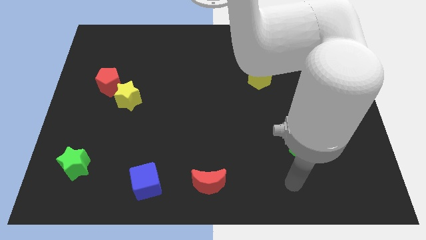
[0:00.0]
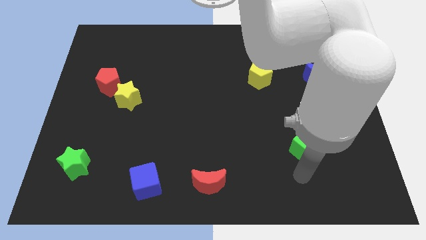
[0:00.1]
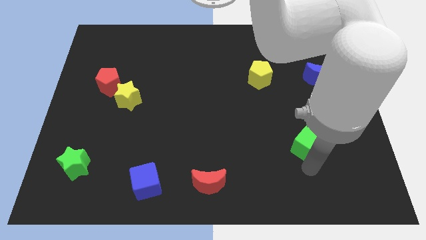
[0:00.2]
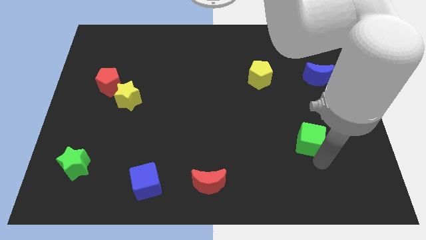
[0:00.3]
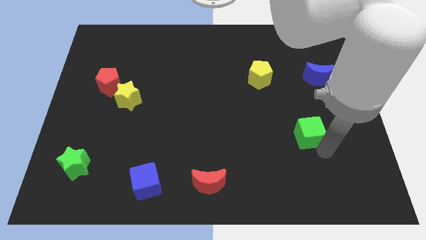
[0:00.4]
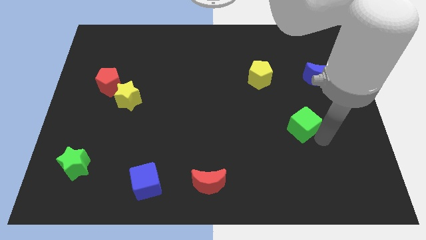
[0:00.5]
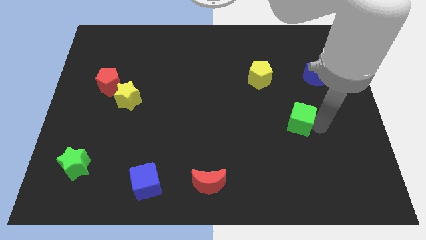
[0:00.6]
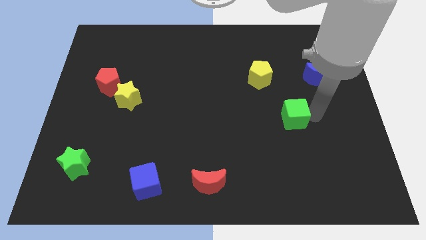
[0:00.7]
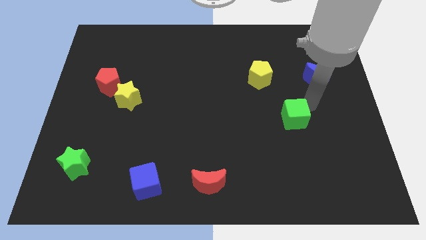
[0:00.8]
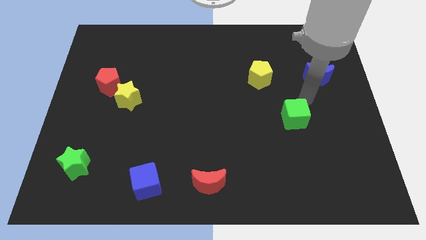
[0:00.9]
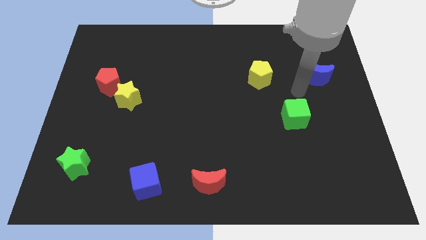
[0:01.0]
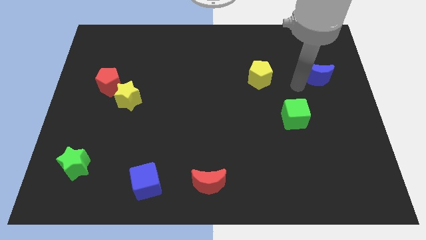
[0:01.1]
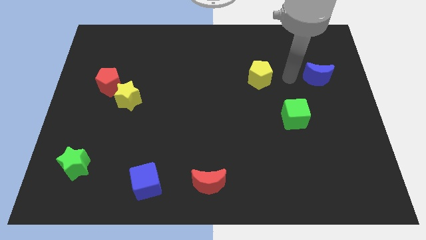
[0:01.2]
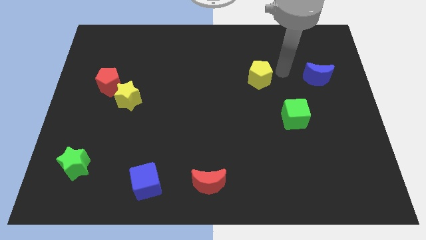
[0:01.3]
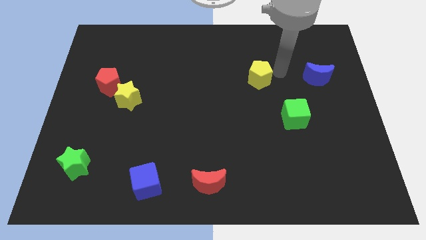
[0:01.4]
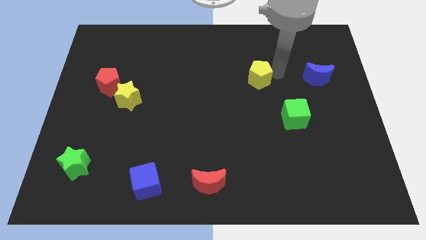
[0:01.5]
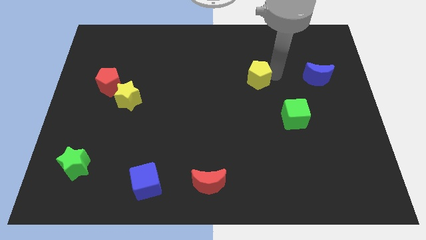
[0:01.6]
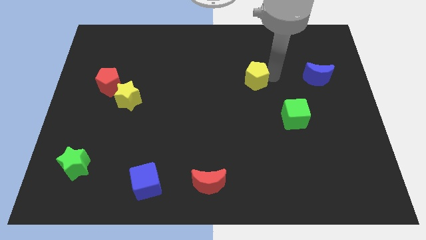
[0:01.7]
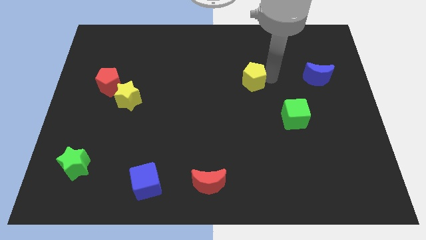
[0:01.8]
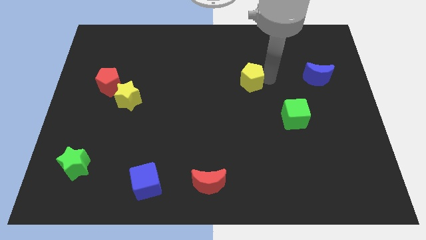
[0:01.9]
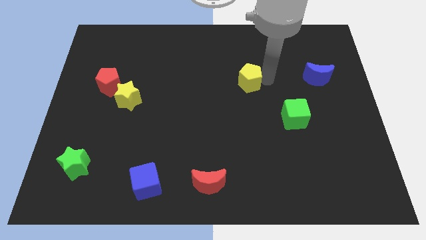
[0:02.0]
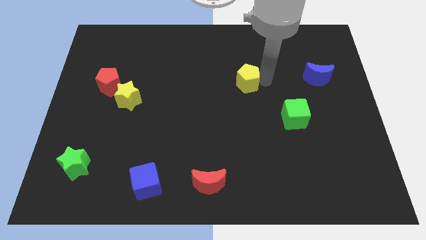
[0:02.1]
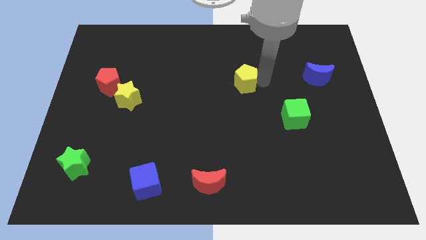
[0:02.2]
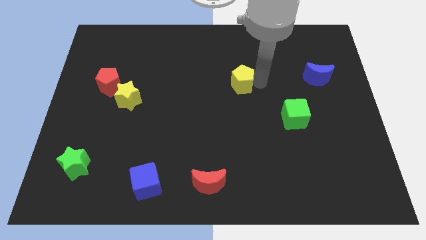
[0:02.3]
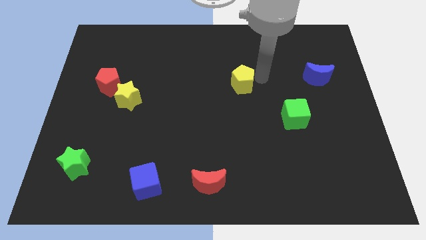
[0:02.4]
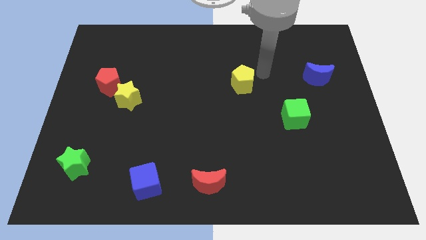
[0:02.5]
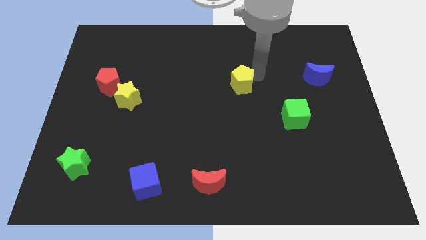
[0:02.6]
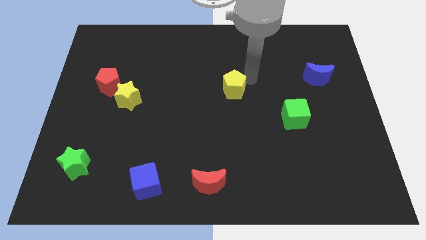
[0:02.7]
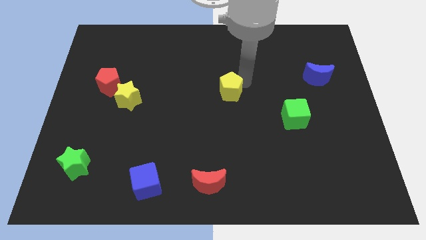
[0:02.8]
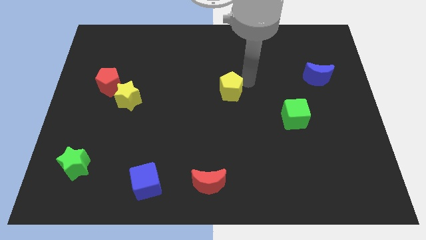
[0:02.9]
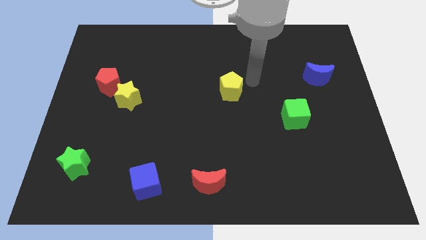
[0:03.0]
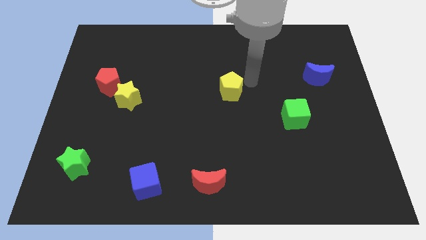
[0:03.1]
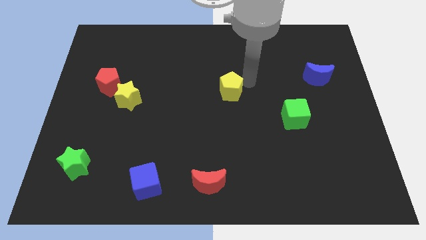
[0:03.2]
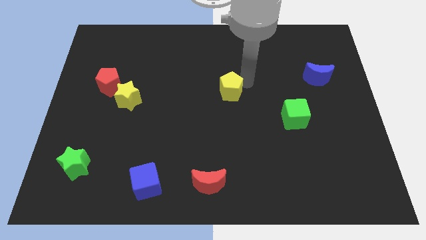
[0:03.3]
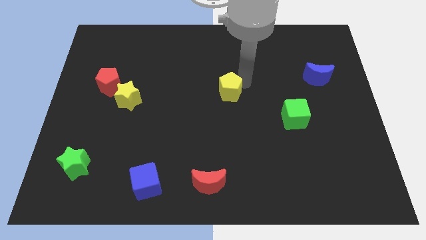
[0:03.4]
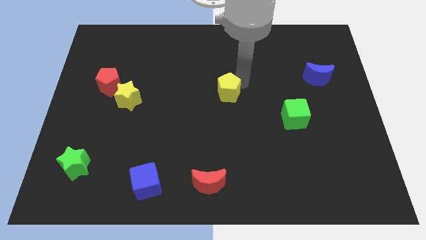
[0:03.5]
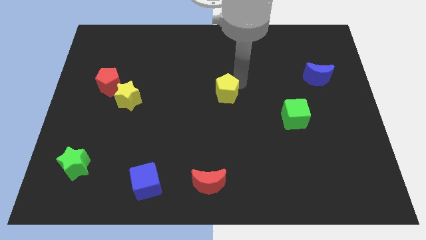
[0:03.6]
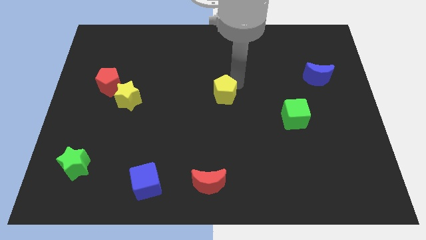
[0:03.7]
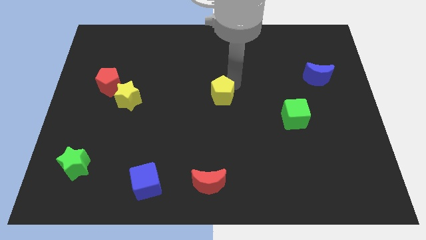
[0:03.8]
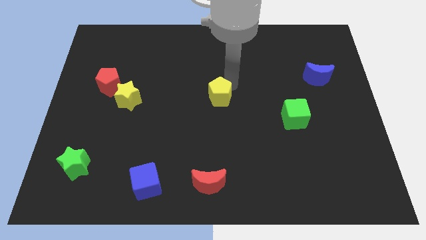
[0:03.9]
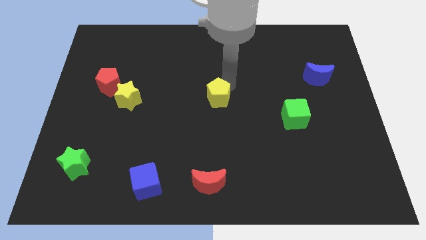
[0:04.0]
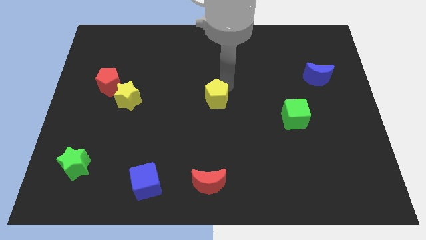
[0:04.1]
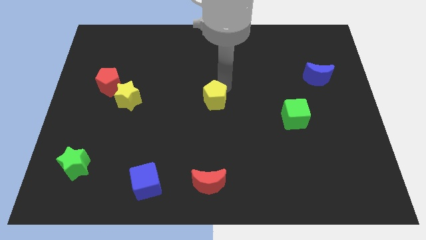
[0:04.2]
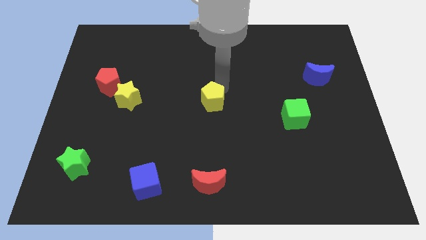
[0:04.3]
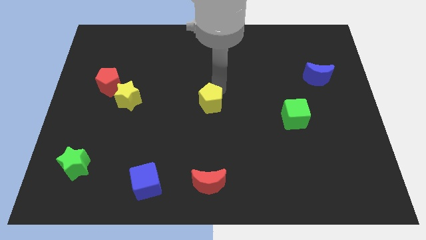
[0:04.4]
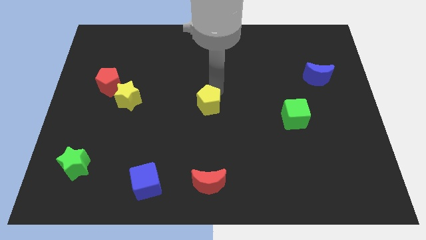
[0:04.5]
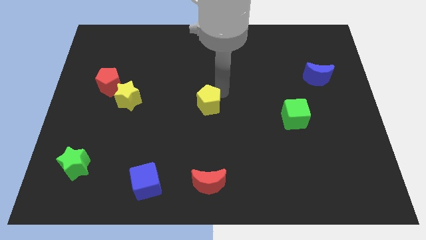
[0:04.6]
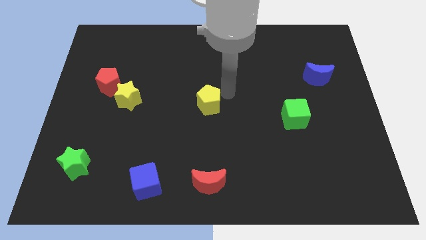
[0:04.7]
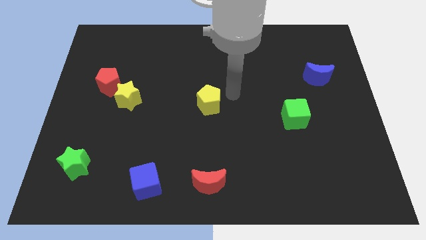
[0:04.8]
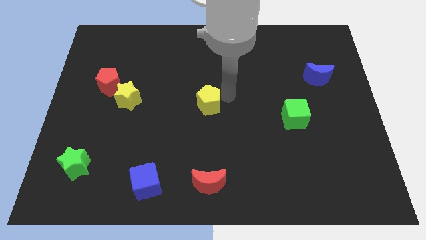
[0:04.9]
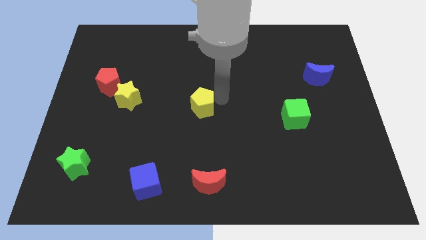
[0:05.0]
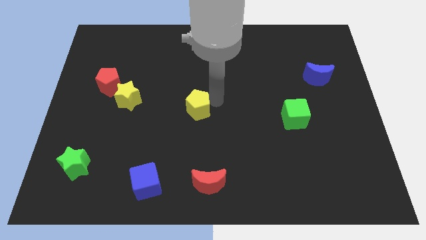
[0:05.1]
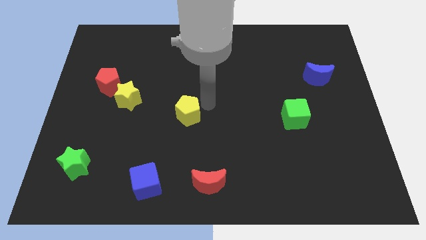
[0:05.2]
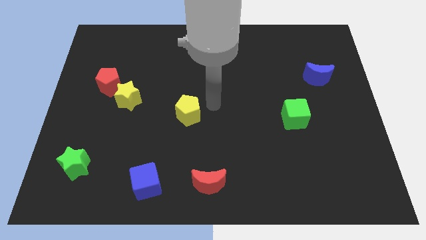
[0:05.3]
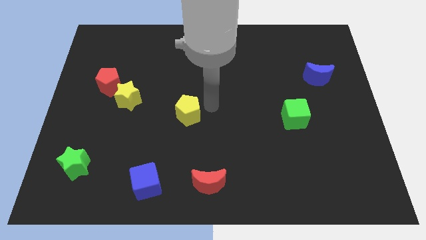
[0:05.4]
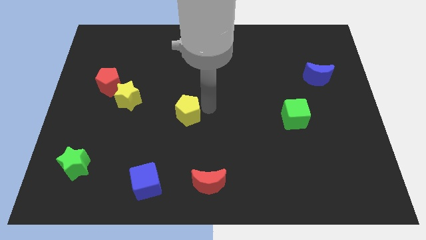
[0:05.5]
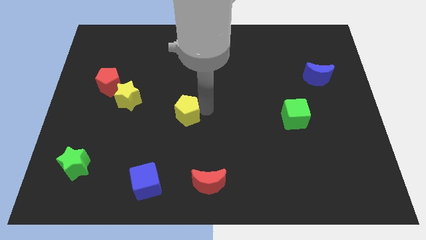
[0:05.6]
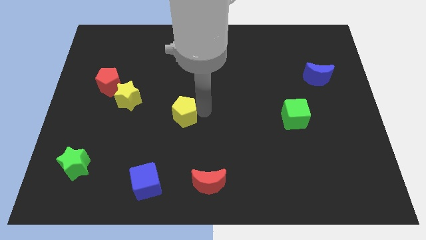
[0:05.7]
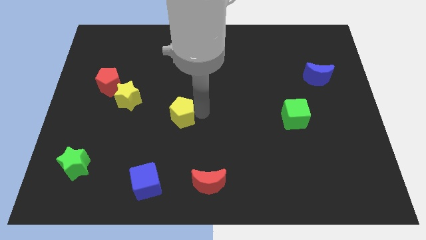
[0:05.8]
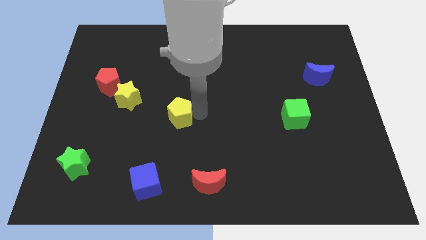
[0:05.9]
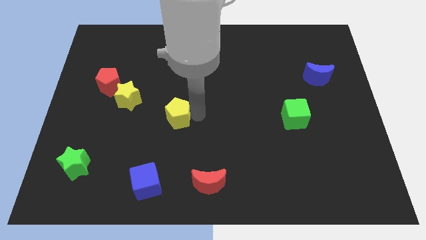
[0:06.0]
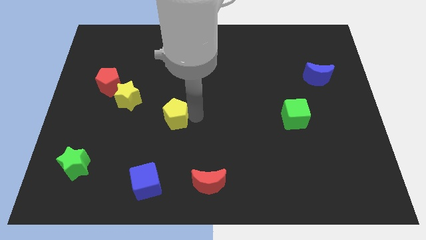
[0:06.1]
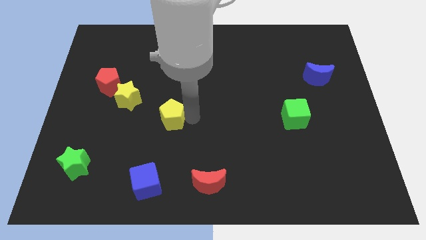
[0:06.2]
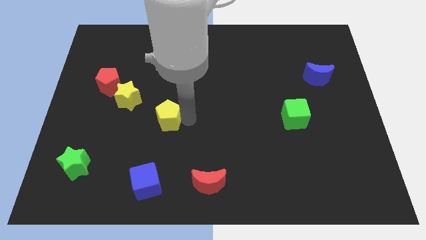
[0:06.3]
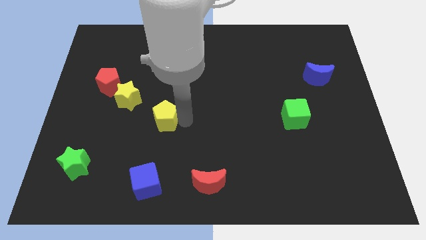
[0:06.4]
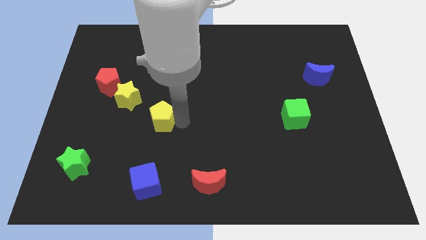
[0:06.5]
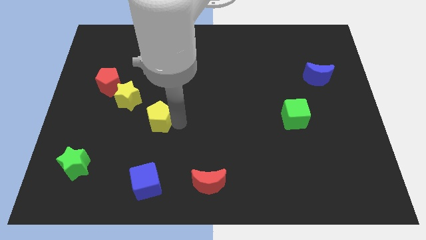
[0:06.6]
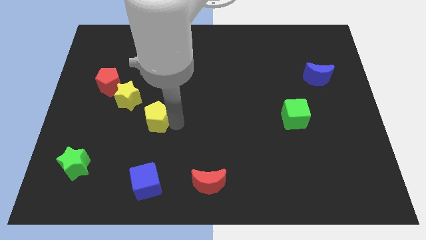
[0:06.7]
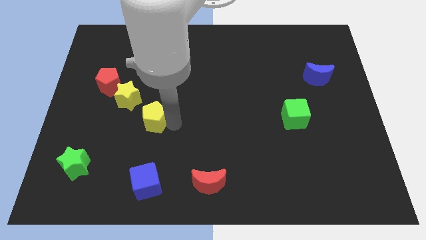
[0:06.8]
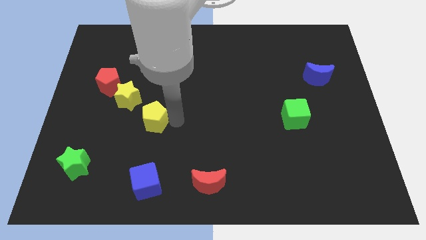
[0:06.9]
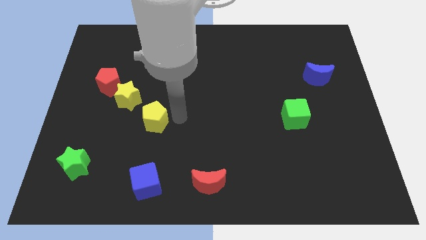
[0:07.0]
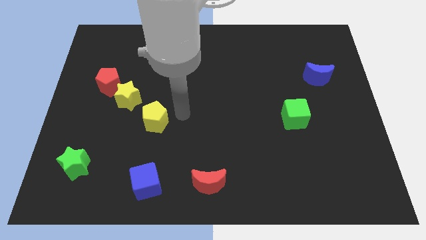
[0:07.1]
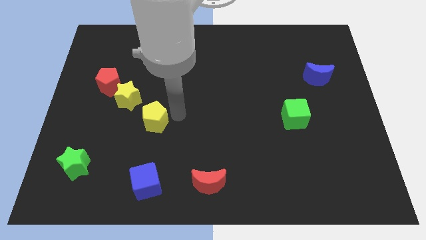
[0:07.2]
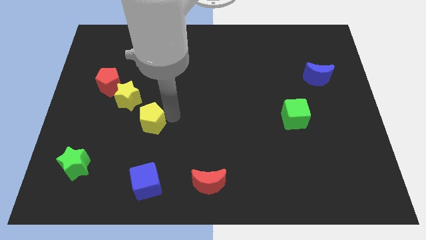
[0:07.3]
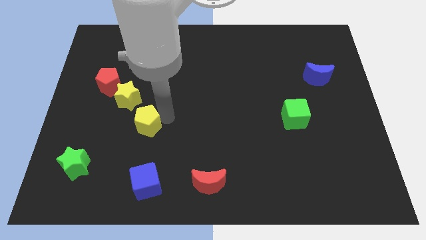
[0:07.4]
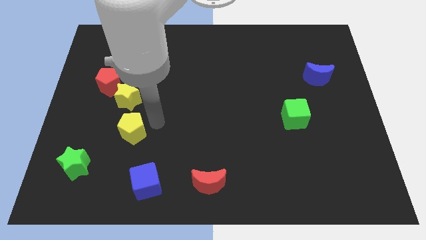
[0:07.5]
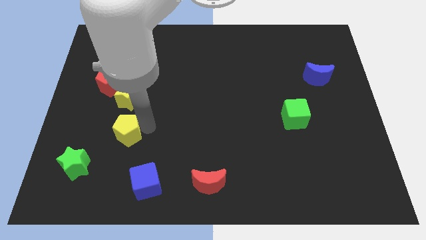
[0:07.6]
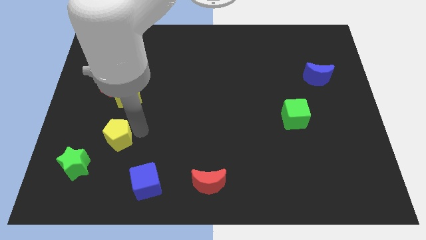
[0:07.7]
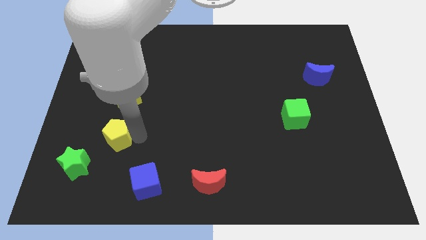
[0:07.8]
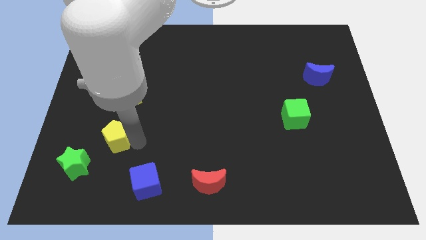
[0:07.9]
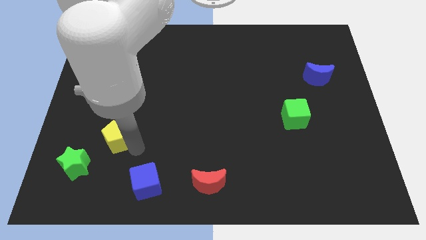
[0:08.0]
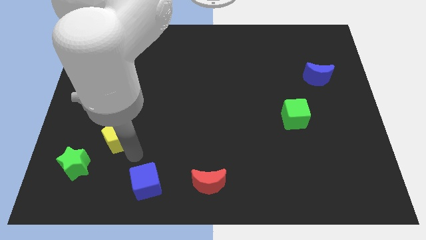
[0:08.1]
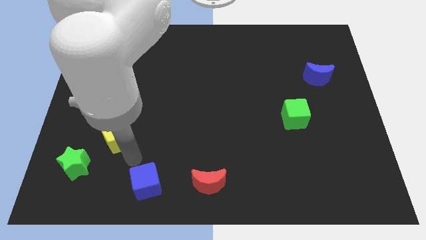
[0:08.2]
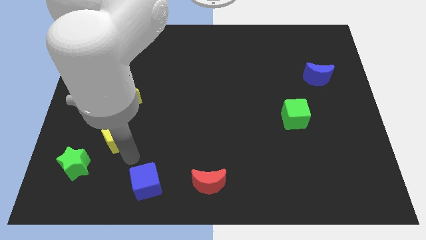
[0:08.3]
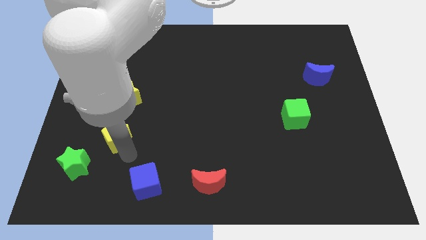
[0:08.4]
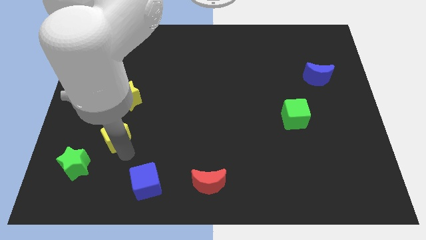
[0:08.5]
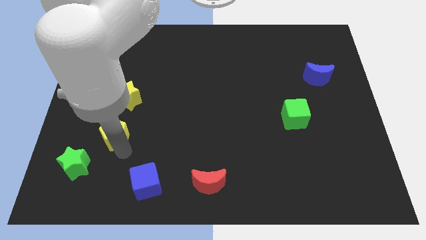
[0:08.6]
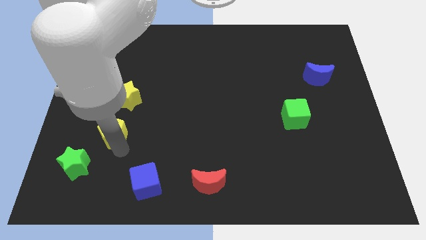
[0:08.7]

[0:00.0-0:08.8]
push the yellow pentagon to the bottom of the red pentagon
